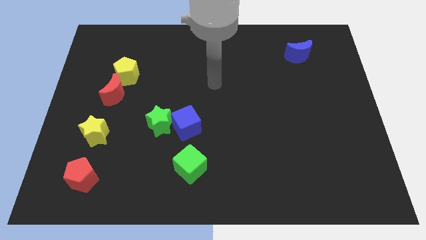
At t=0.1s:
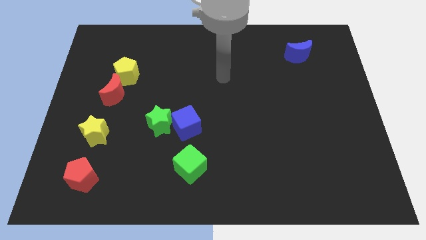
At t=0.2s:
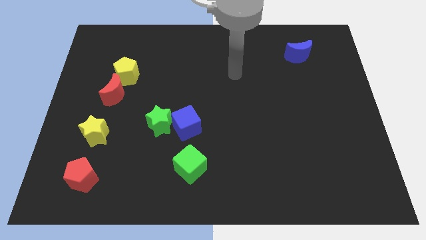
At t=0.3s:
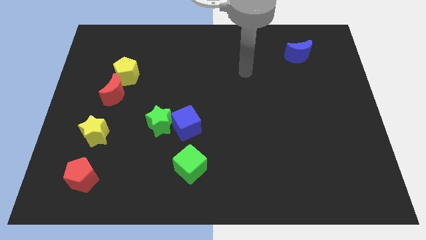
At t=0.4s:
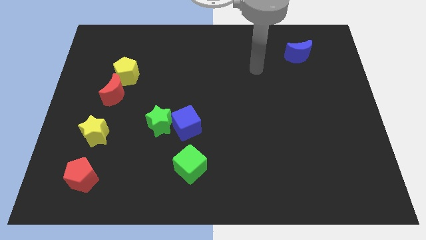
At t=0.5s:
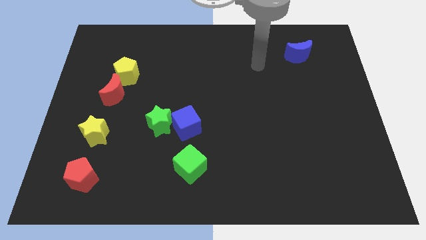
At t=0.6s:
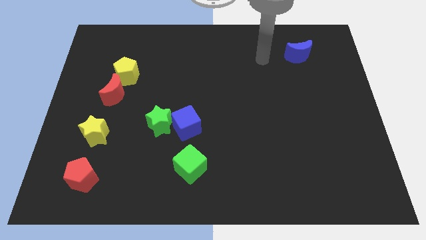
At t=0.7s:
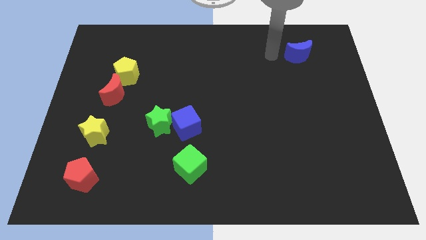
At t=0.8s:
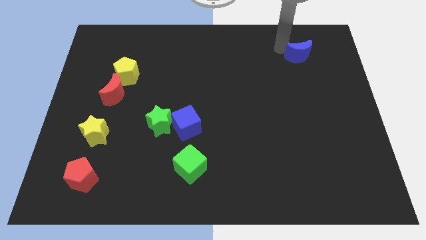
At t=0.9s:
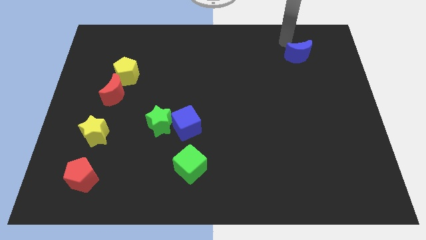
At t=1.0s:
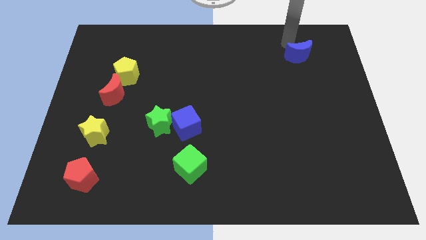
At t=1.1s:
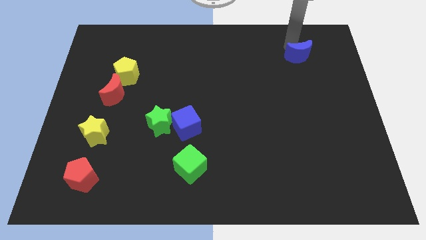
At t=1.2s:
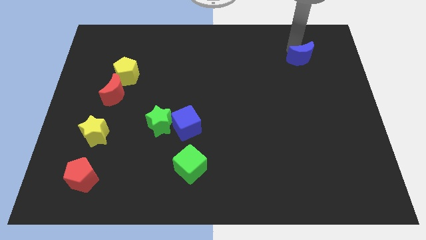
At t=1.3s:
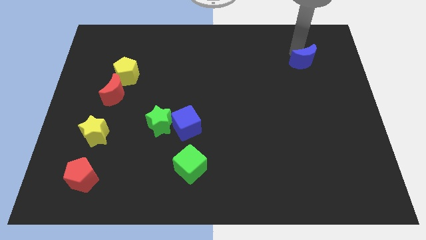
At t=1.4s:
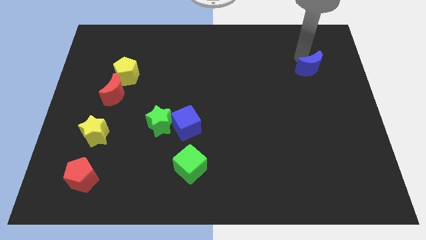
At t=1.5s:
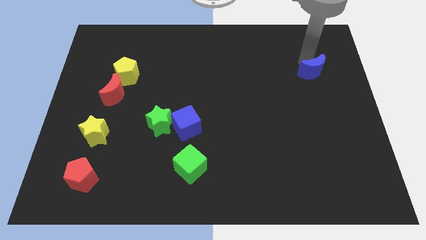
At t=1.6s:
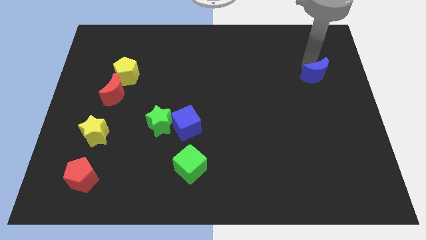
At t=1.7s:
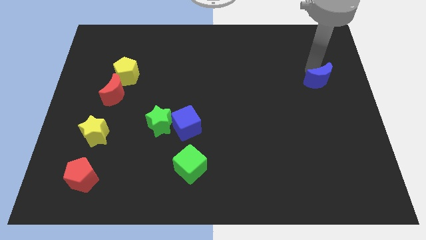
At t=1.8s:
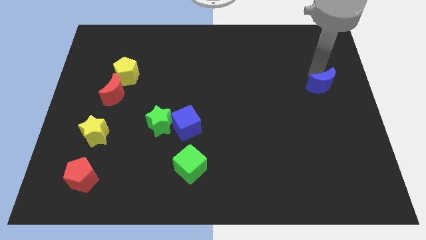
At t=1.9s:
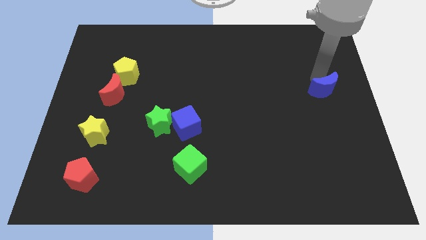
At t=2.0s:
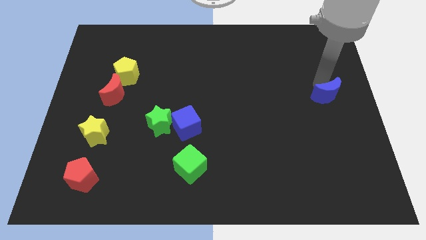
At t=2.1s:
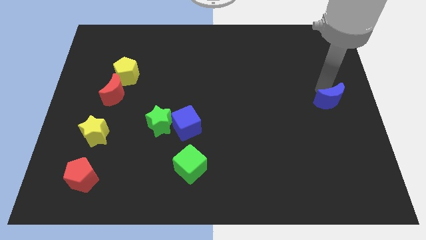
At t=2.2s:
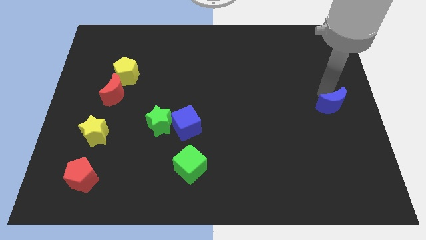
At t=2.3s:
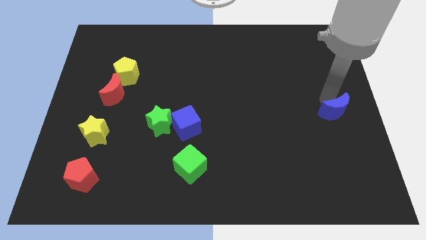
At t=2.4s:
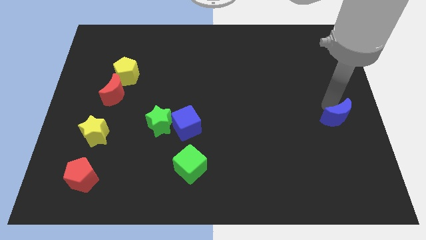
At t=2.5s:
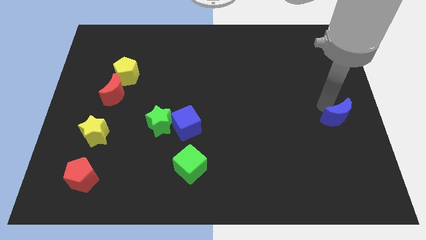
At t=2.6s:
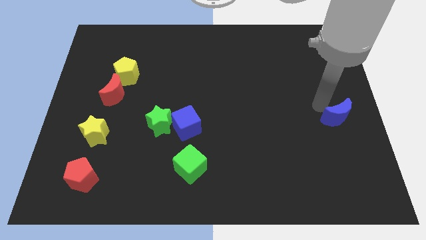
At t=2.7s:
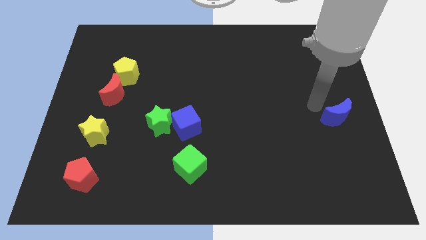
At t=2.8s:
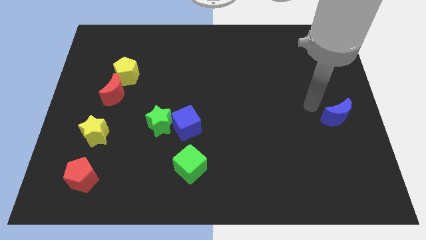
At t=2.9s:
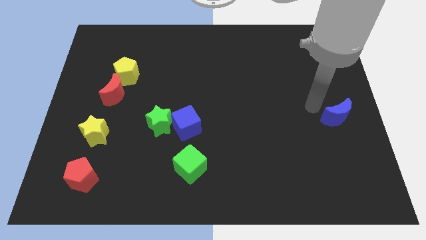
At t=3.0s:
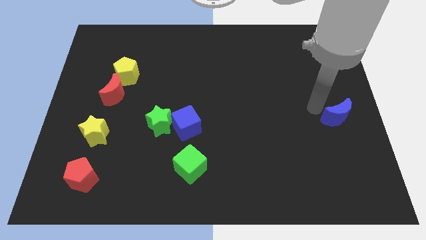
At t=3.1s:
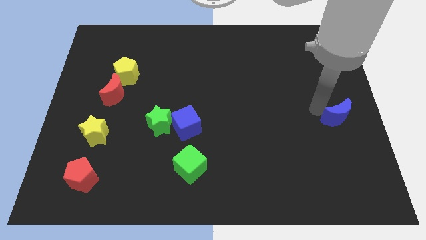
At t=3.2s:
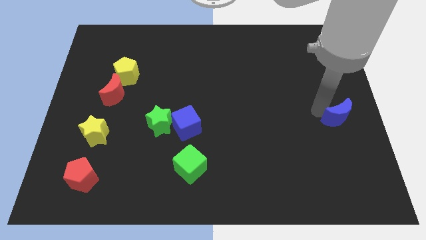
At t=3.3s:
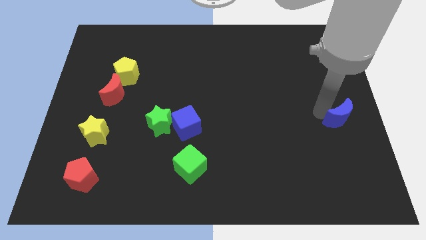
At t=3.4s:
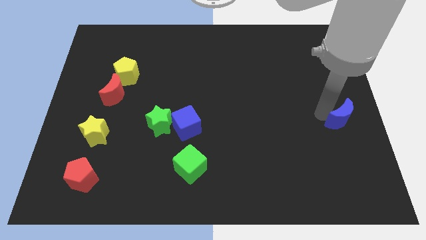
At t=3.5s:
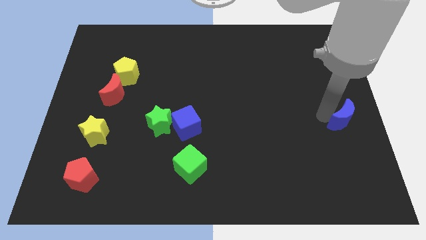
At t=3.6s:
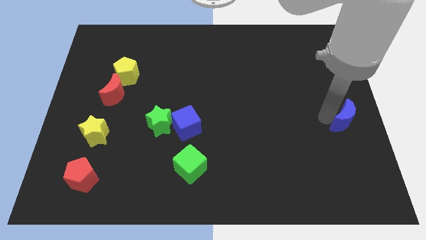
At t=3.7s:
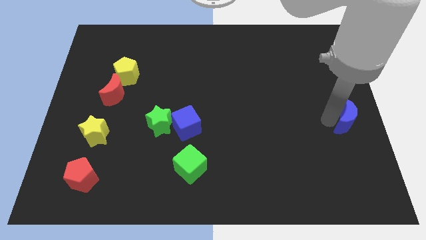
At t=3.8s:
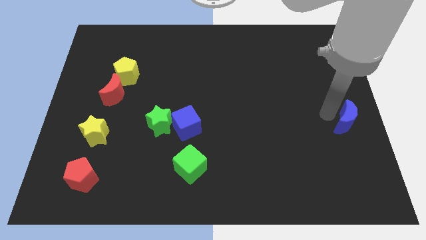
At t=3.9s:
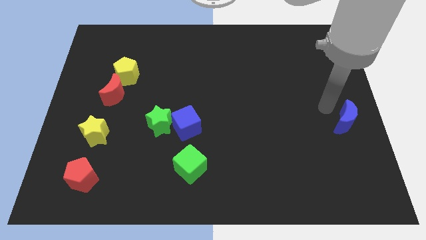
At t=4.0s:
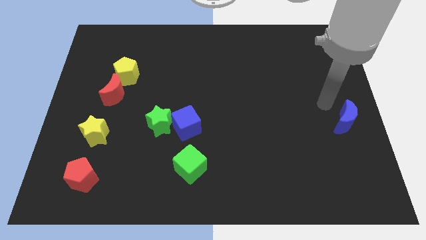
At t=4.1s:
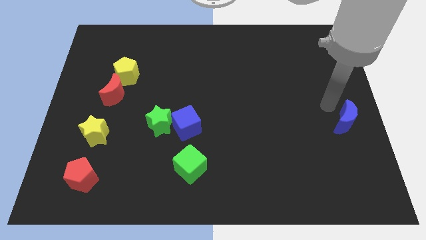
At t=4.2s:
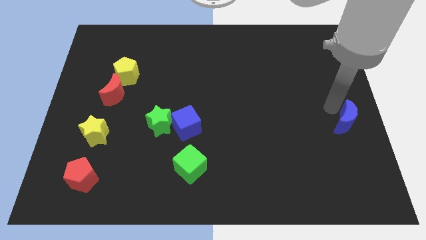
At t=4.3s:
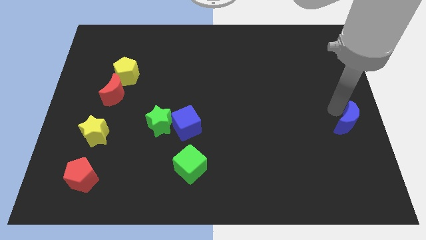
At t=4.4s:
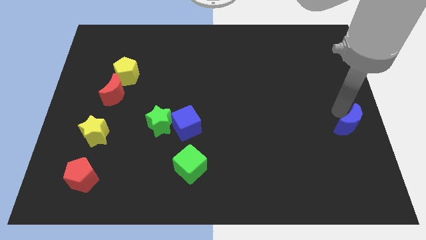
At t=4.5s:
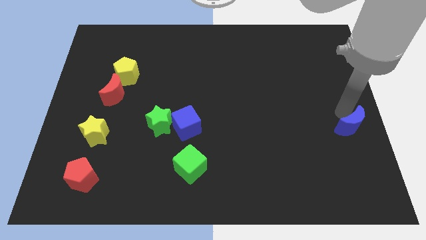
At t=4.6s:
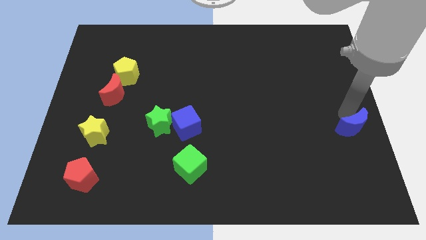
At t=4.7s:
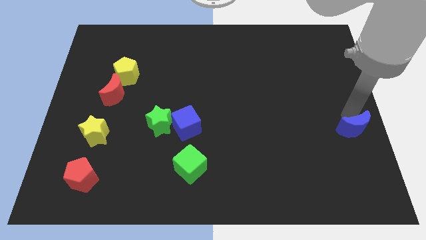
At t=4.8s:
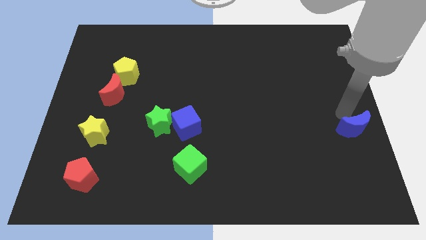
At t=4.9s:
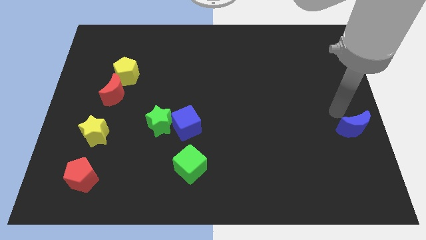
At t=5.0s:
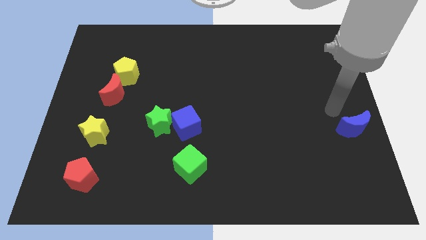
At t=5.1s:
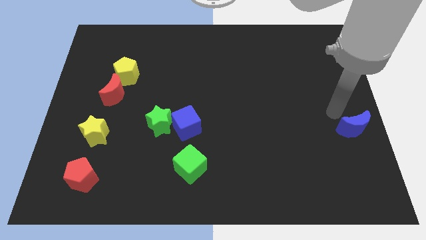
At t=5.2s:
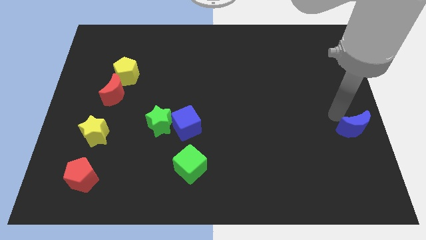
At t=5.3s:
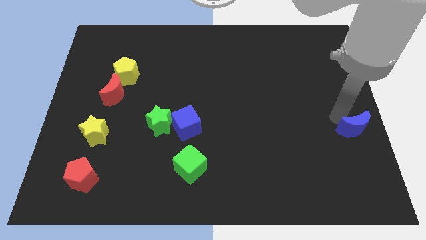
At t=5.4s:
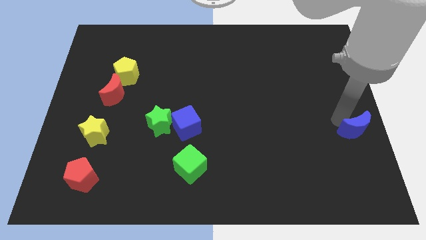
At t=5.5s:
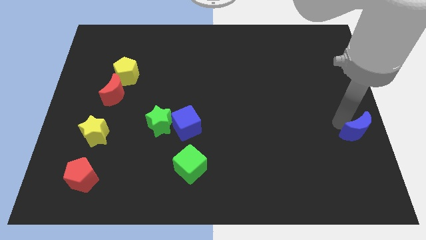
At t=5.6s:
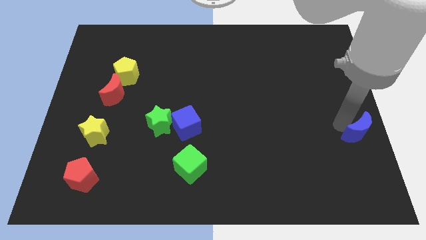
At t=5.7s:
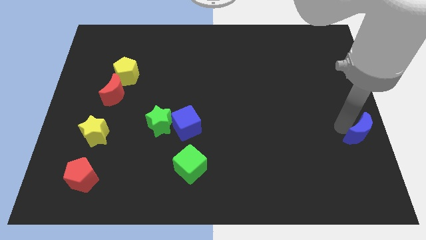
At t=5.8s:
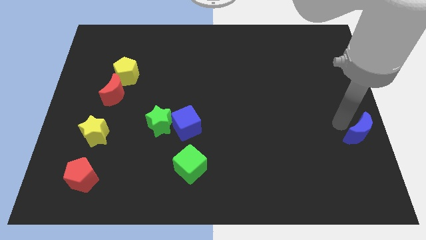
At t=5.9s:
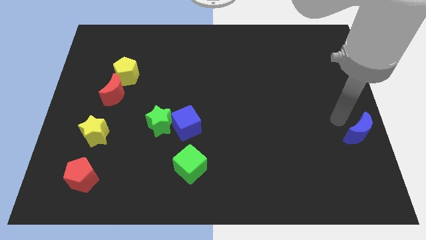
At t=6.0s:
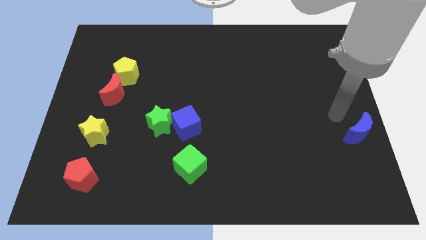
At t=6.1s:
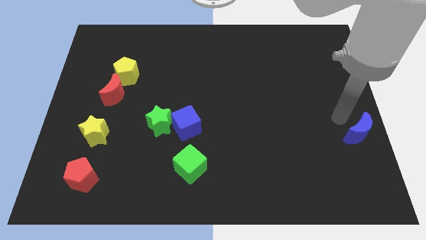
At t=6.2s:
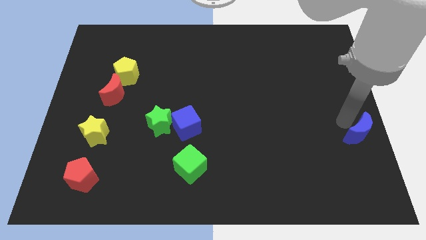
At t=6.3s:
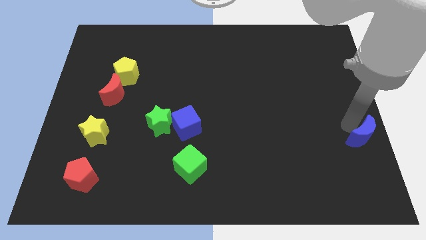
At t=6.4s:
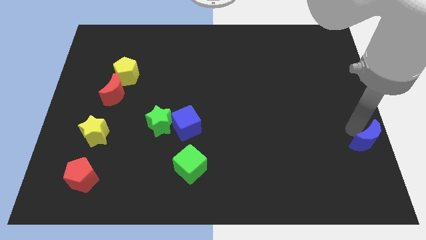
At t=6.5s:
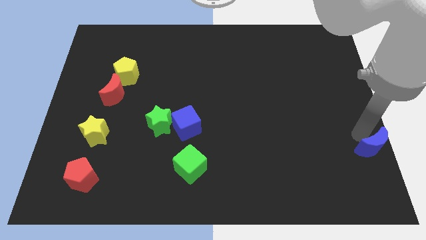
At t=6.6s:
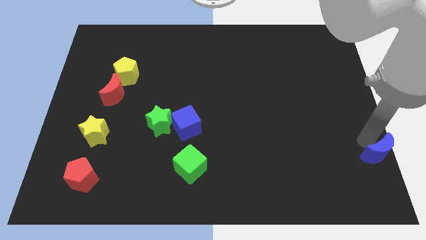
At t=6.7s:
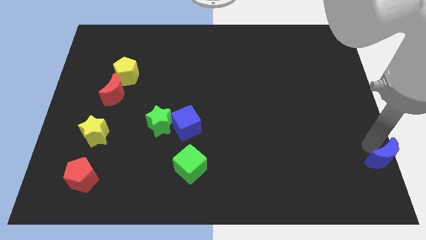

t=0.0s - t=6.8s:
put the blue moon to the bottom right corner
